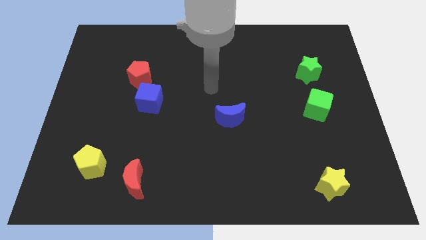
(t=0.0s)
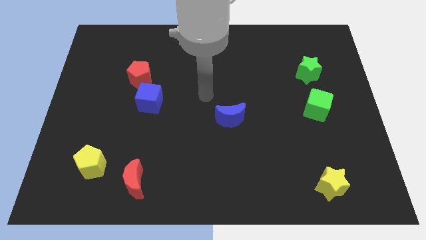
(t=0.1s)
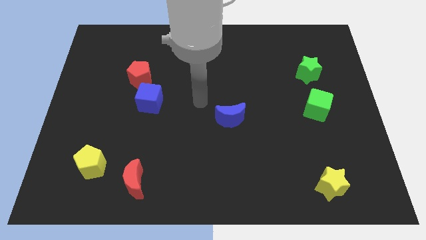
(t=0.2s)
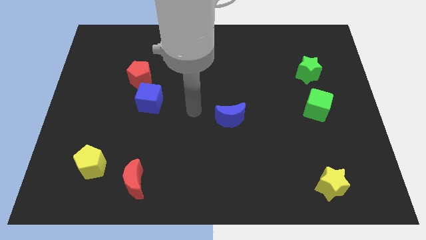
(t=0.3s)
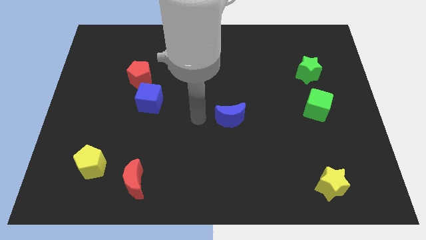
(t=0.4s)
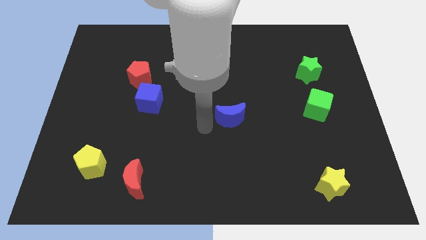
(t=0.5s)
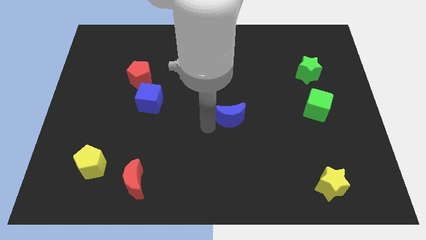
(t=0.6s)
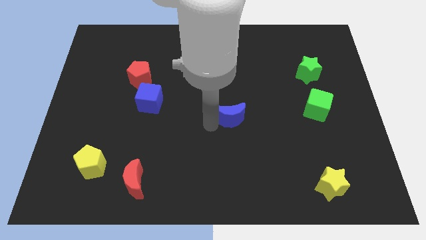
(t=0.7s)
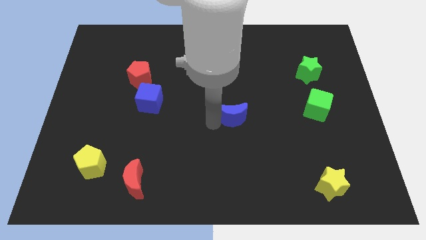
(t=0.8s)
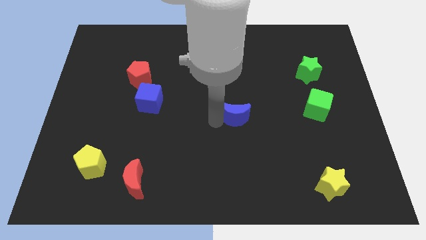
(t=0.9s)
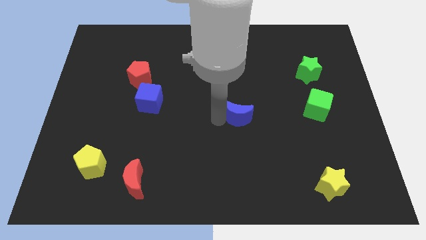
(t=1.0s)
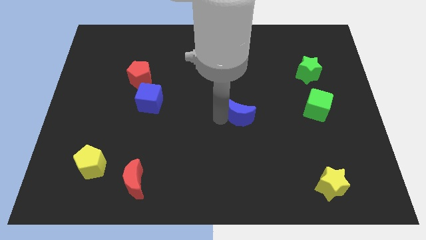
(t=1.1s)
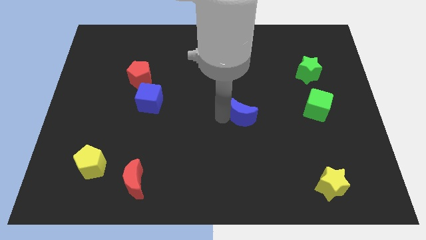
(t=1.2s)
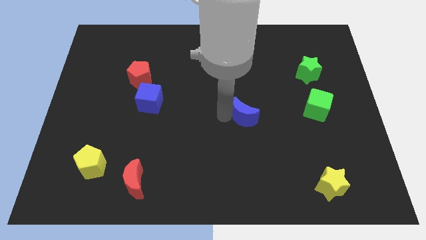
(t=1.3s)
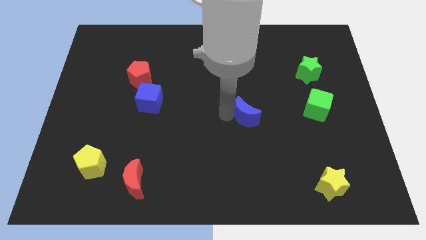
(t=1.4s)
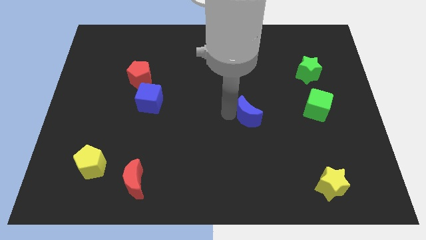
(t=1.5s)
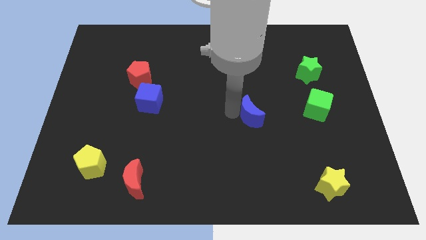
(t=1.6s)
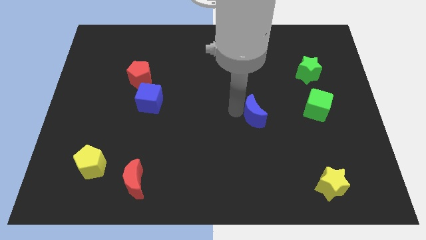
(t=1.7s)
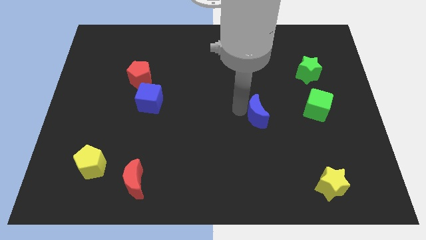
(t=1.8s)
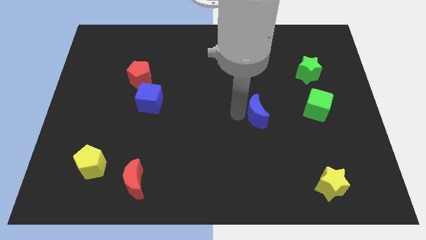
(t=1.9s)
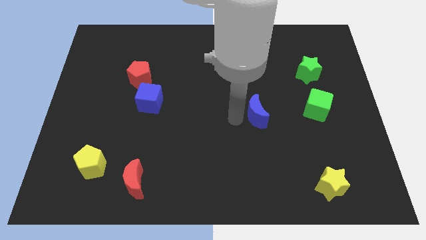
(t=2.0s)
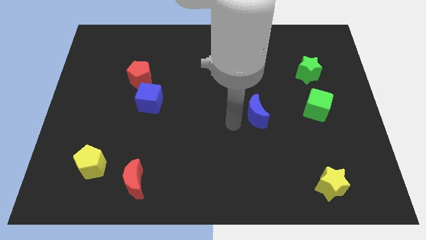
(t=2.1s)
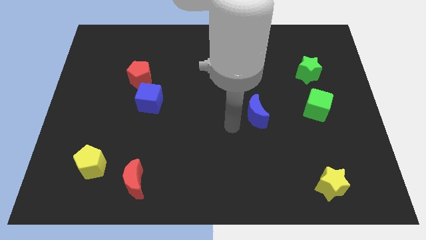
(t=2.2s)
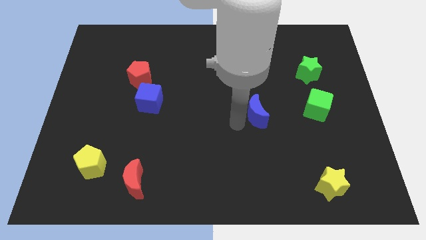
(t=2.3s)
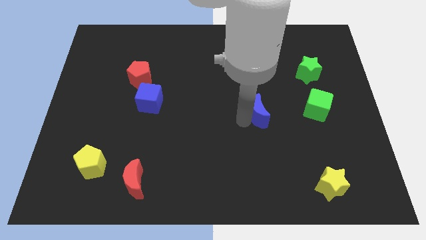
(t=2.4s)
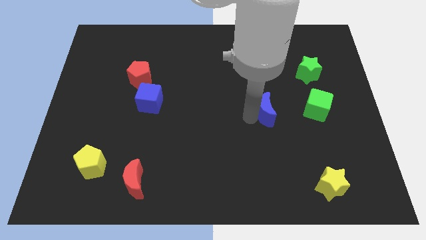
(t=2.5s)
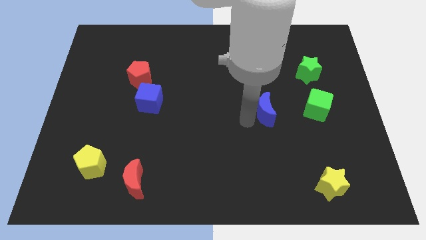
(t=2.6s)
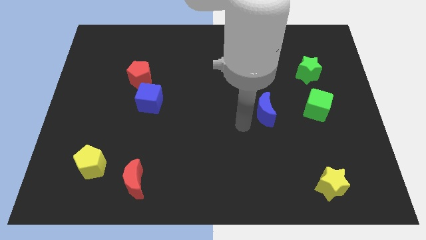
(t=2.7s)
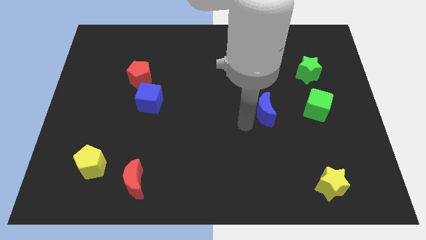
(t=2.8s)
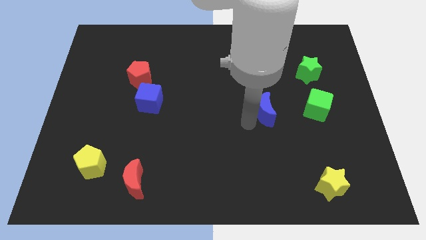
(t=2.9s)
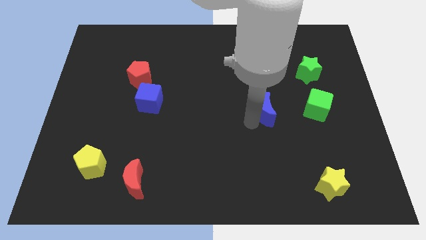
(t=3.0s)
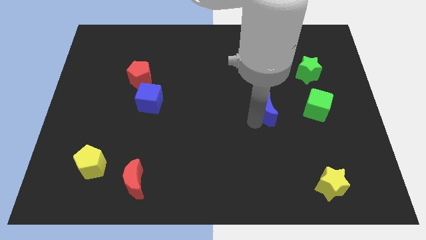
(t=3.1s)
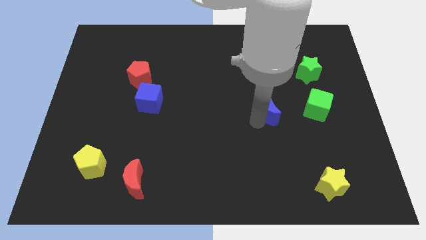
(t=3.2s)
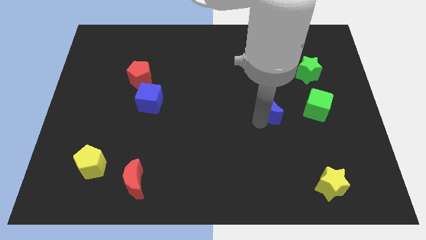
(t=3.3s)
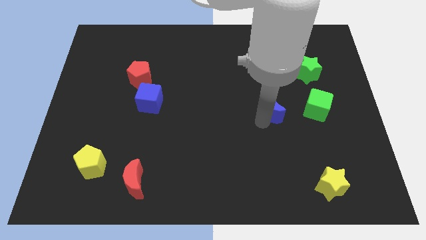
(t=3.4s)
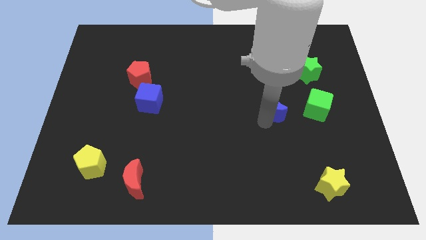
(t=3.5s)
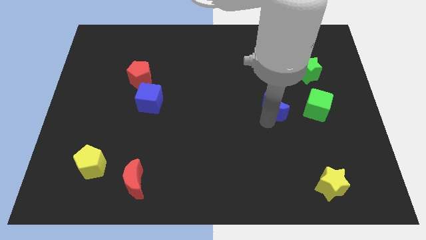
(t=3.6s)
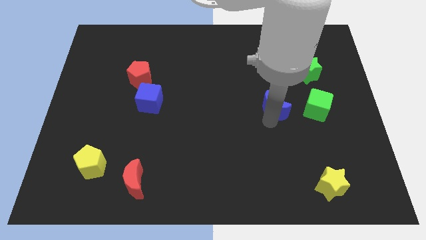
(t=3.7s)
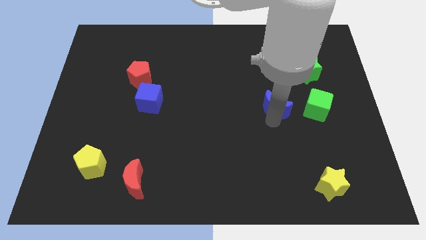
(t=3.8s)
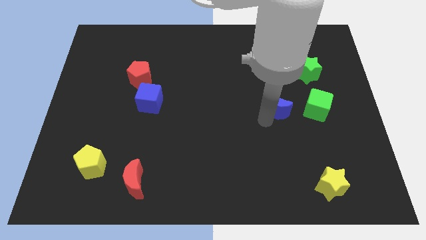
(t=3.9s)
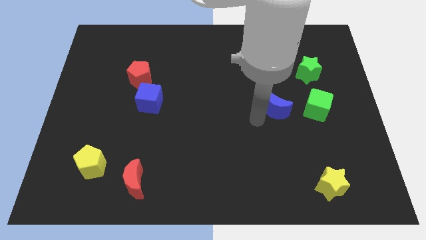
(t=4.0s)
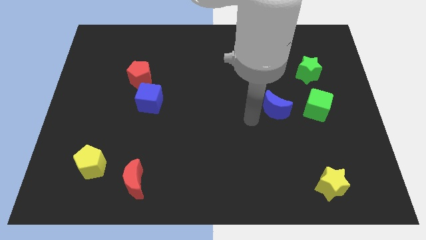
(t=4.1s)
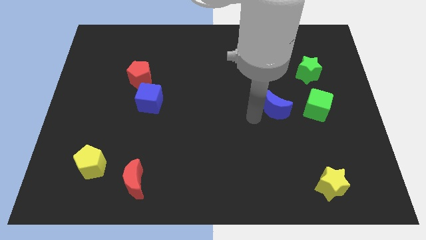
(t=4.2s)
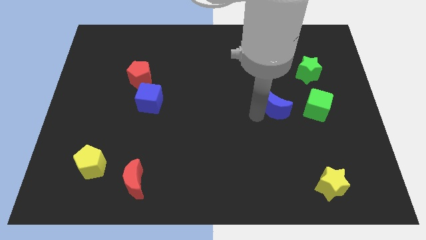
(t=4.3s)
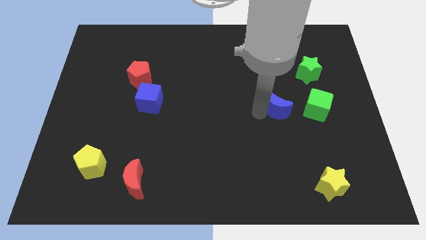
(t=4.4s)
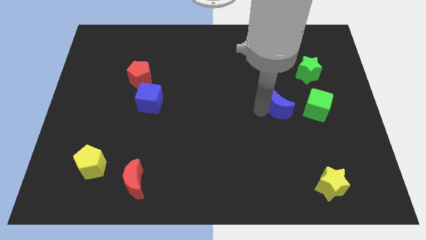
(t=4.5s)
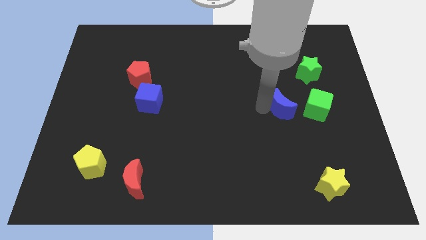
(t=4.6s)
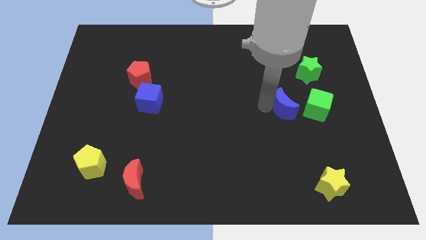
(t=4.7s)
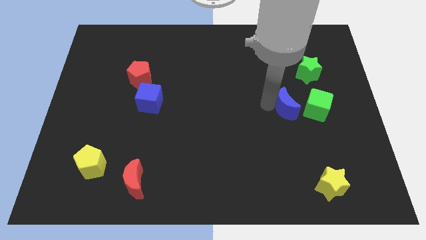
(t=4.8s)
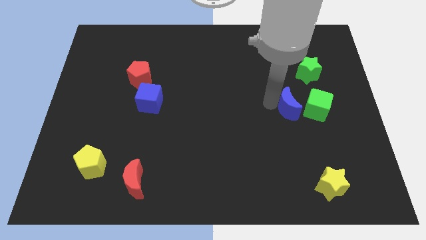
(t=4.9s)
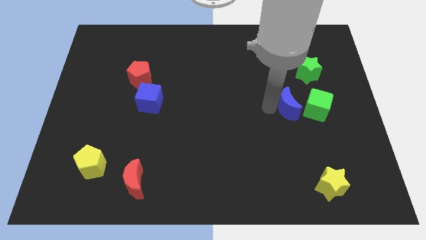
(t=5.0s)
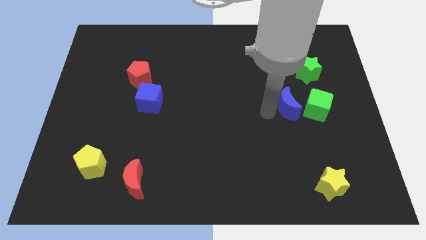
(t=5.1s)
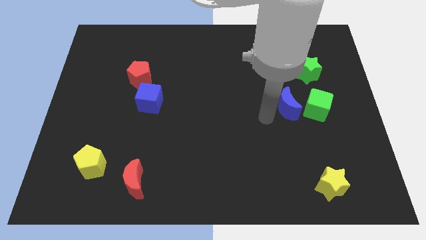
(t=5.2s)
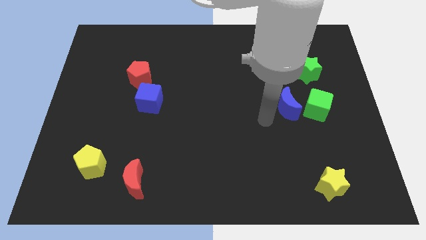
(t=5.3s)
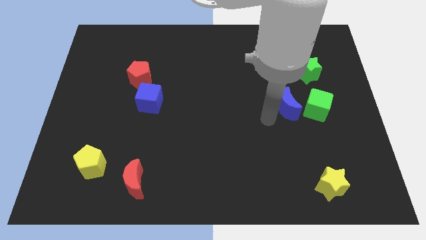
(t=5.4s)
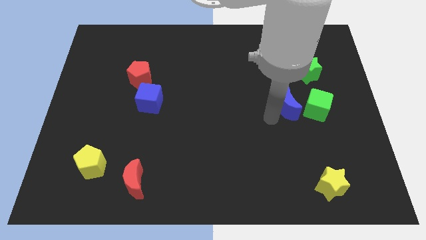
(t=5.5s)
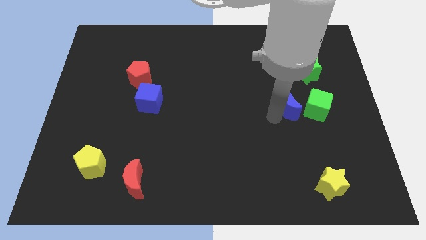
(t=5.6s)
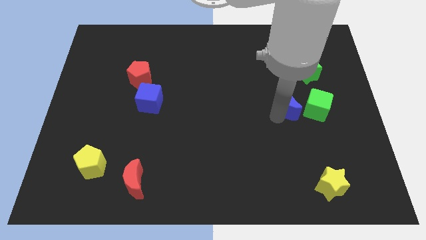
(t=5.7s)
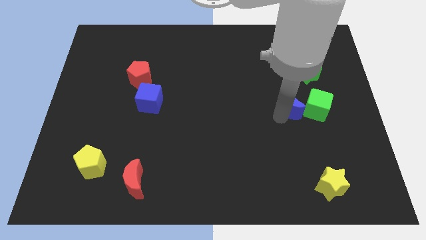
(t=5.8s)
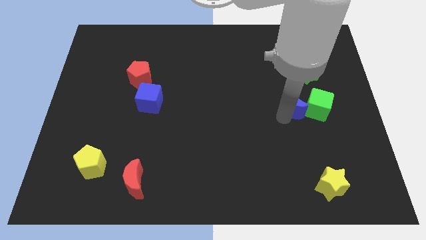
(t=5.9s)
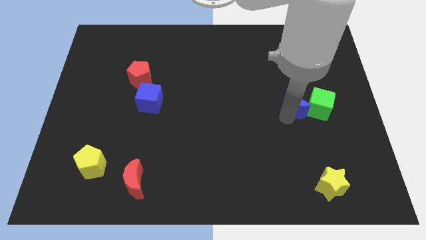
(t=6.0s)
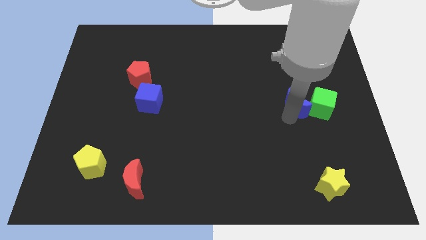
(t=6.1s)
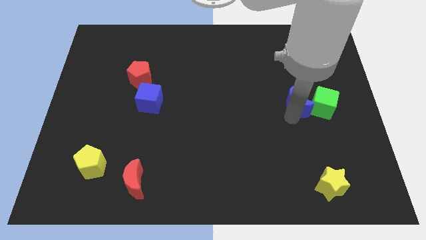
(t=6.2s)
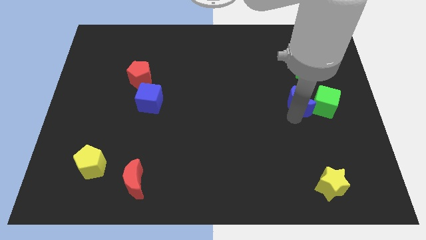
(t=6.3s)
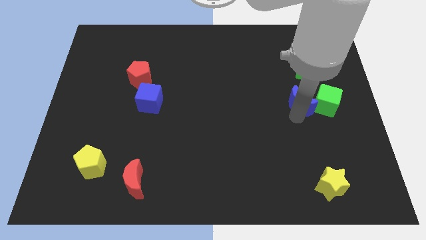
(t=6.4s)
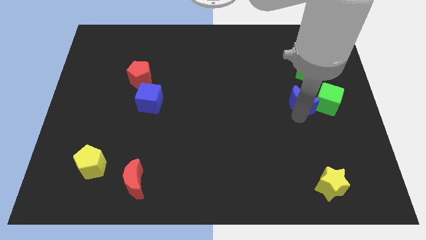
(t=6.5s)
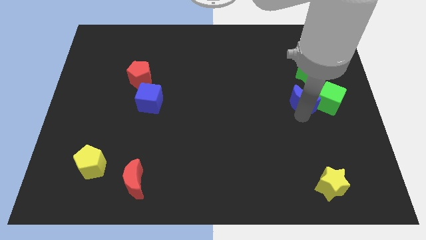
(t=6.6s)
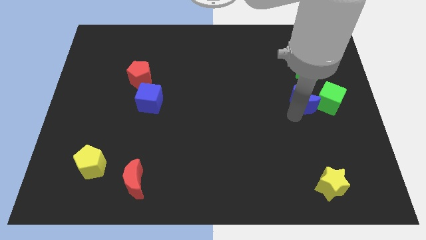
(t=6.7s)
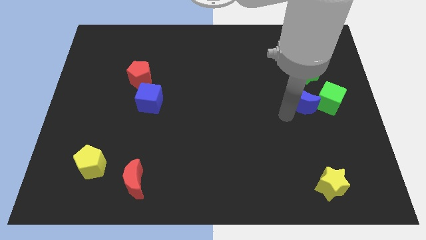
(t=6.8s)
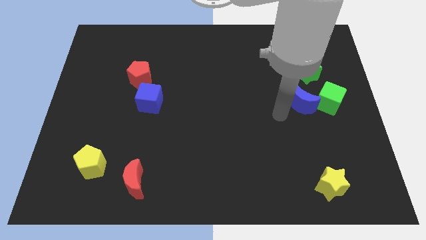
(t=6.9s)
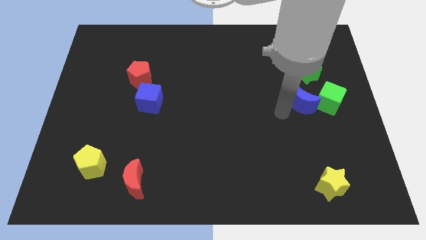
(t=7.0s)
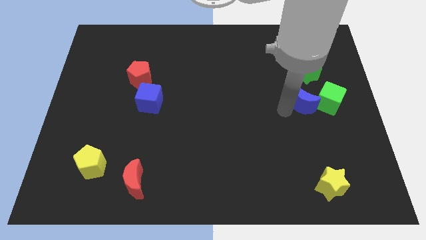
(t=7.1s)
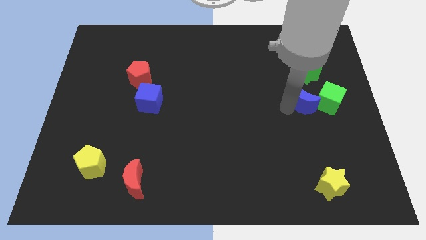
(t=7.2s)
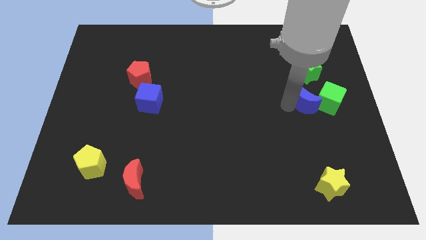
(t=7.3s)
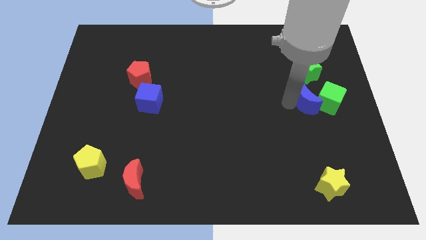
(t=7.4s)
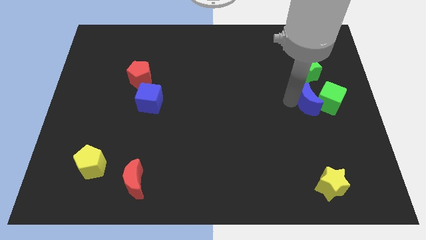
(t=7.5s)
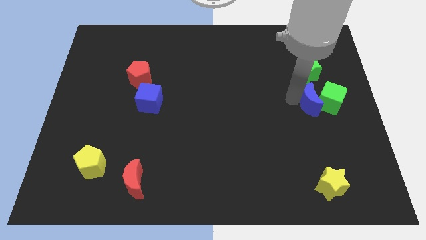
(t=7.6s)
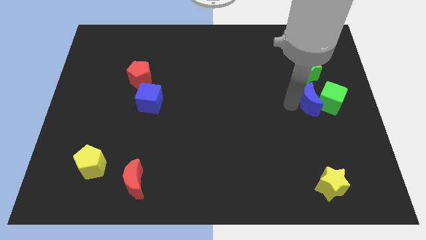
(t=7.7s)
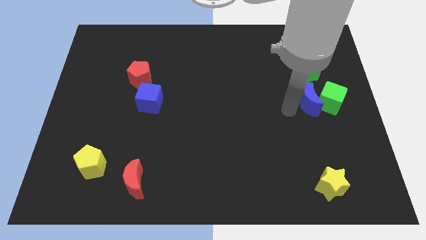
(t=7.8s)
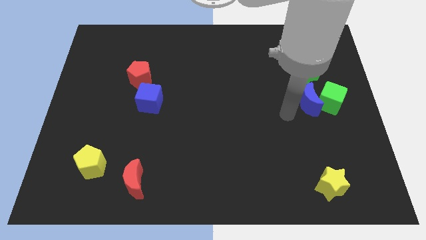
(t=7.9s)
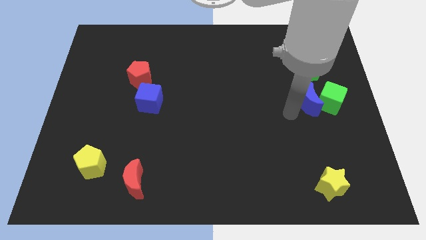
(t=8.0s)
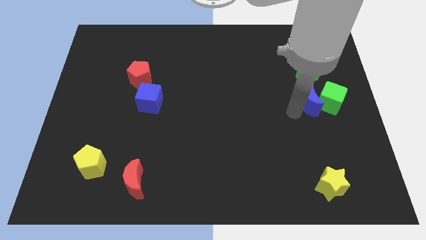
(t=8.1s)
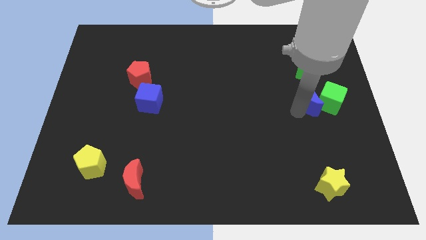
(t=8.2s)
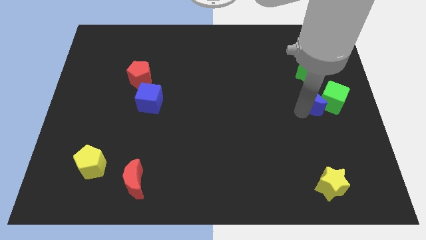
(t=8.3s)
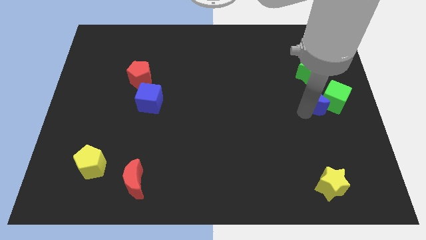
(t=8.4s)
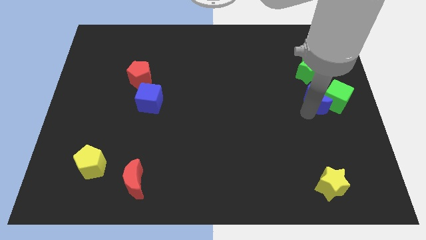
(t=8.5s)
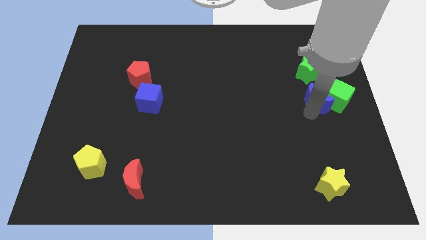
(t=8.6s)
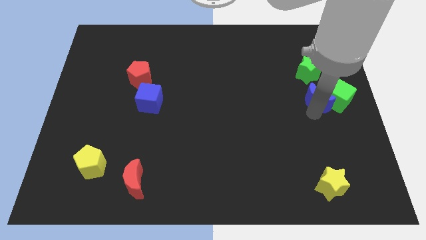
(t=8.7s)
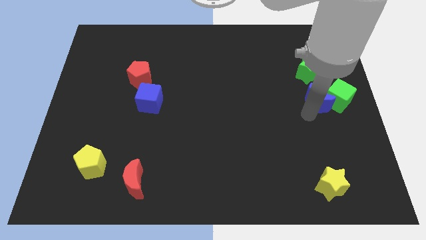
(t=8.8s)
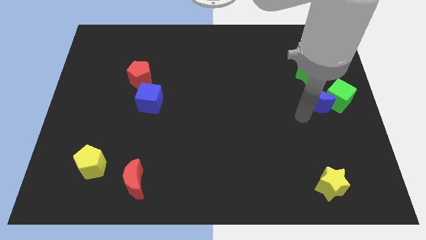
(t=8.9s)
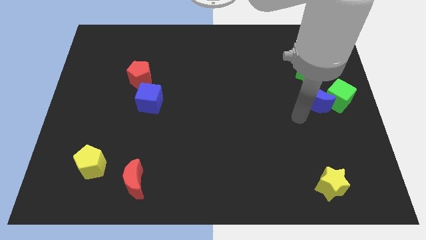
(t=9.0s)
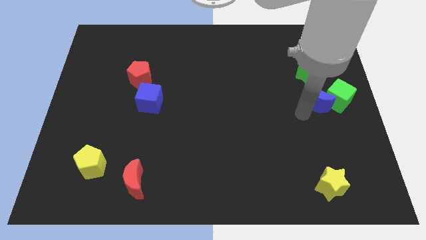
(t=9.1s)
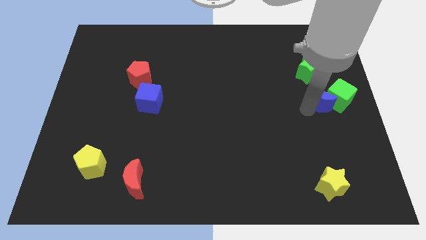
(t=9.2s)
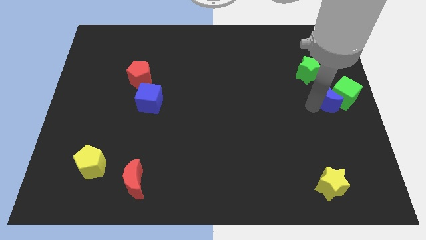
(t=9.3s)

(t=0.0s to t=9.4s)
move the blue moon to the bottom right of the green star
